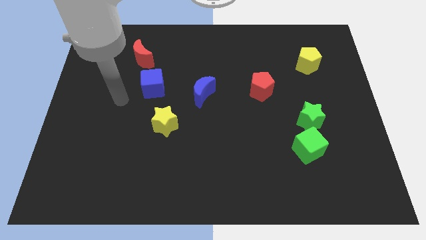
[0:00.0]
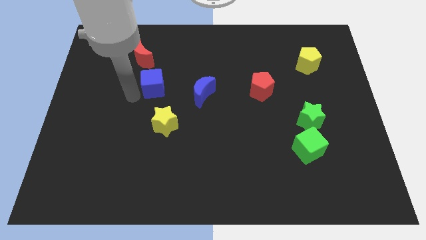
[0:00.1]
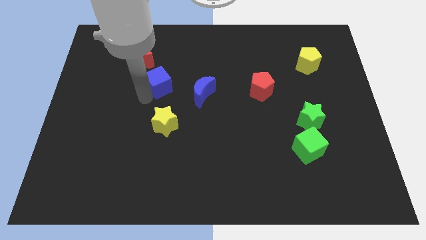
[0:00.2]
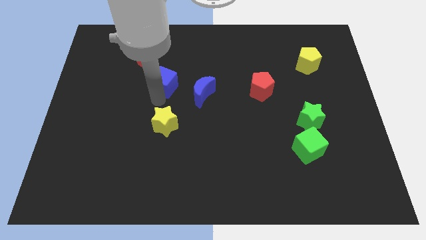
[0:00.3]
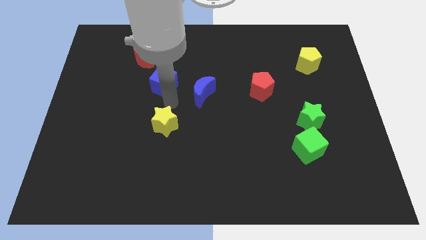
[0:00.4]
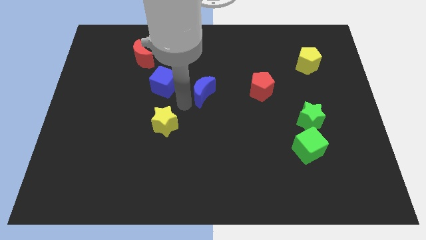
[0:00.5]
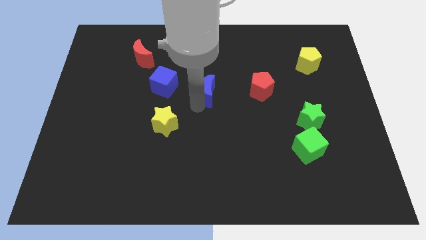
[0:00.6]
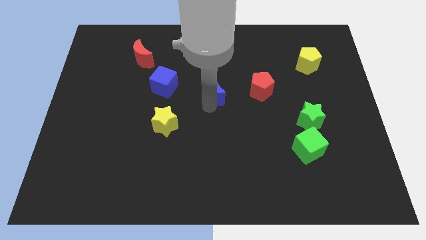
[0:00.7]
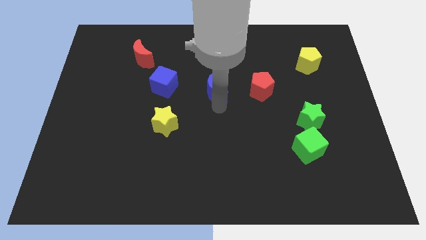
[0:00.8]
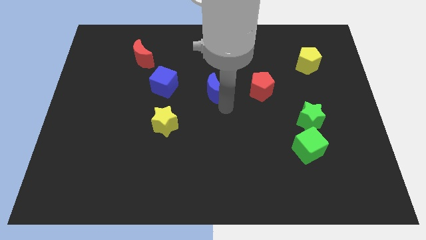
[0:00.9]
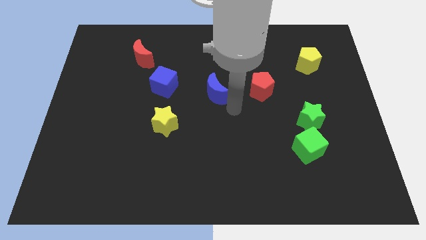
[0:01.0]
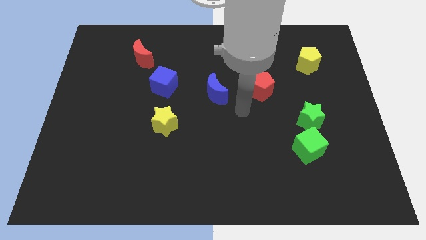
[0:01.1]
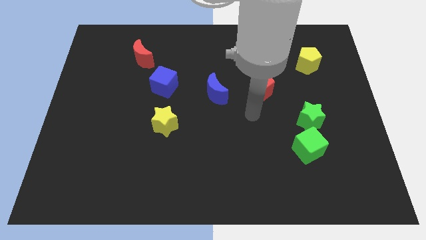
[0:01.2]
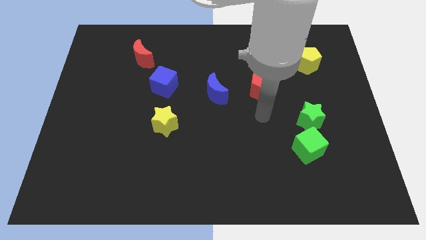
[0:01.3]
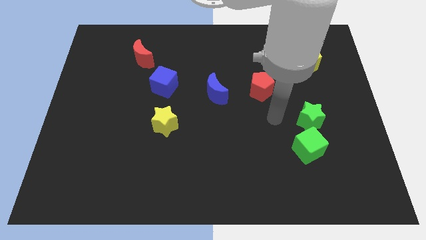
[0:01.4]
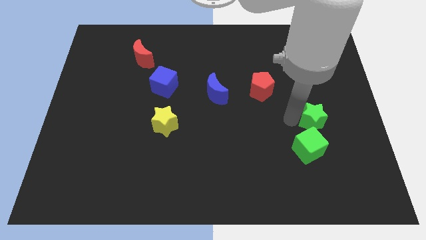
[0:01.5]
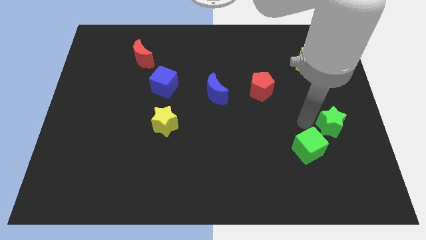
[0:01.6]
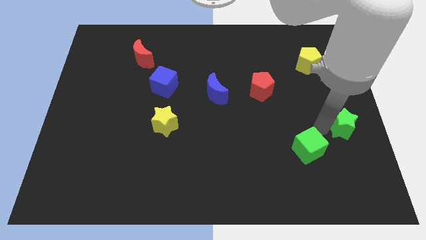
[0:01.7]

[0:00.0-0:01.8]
pull the green cube apart from the green star

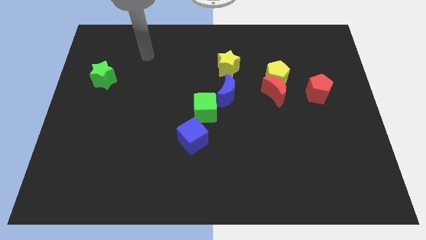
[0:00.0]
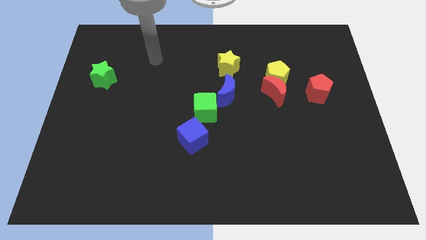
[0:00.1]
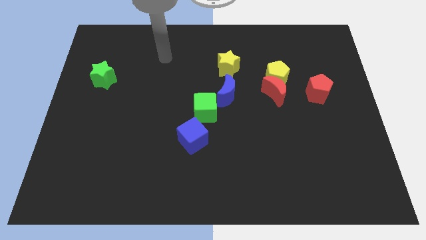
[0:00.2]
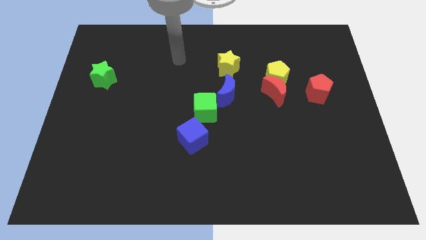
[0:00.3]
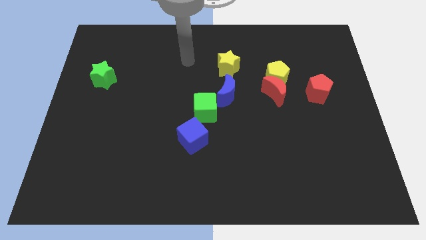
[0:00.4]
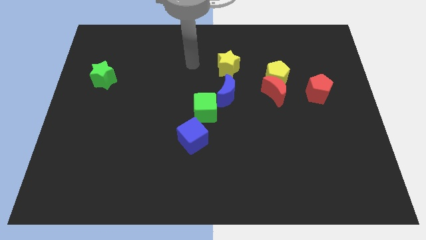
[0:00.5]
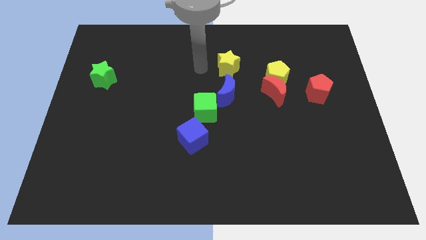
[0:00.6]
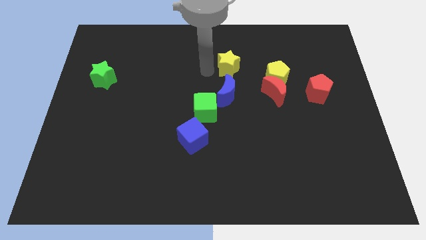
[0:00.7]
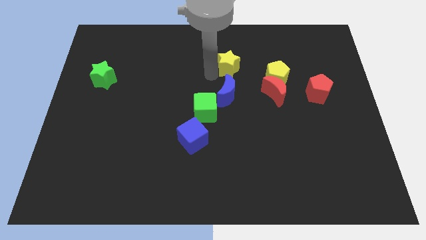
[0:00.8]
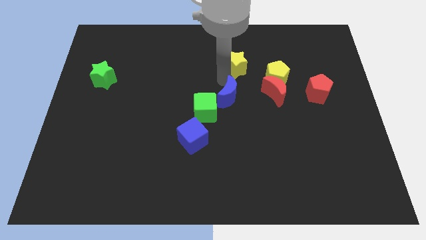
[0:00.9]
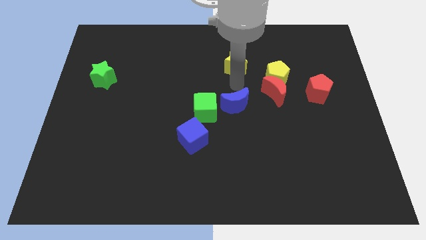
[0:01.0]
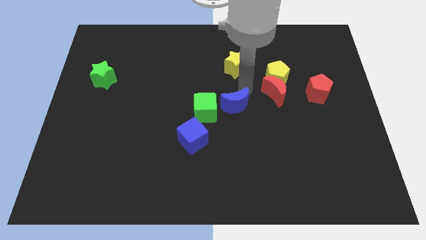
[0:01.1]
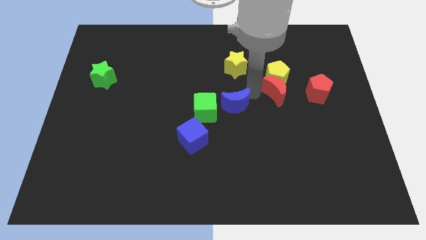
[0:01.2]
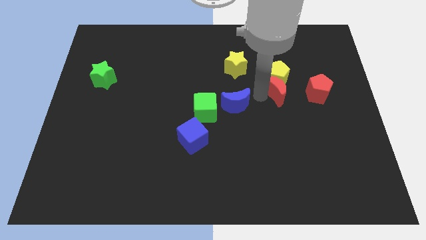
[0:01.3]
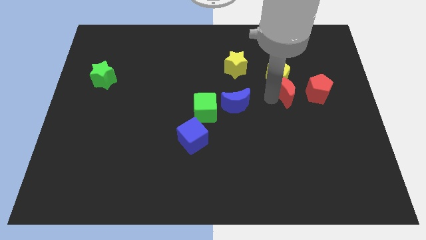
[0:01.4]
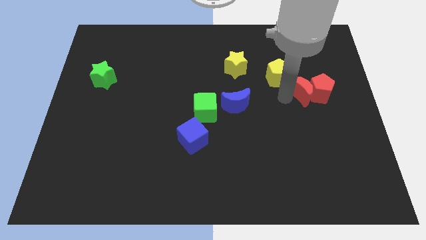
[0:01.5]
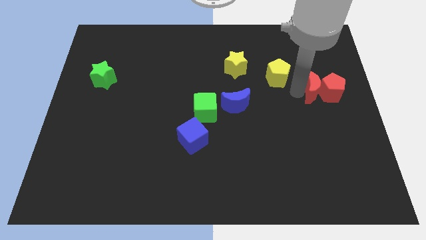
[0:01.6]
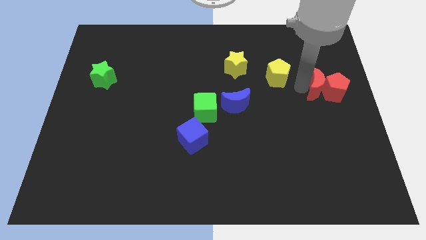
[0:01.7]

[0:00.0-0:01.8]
separate the yellow pentagon from the red moon

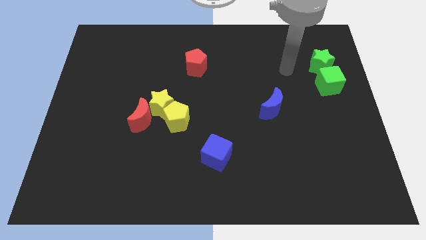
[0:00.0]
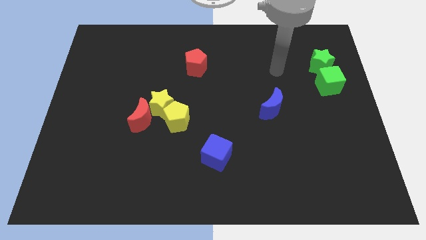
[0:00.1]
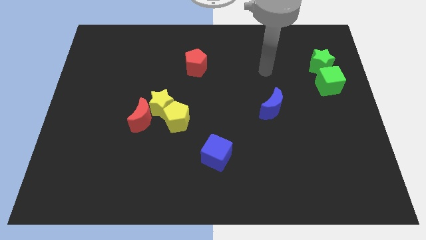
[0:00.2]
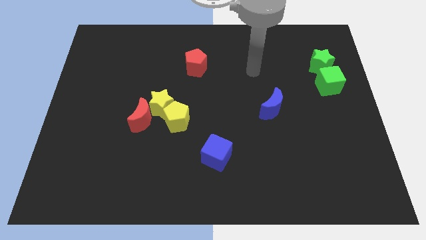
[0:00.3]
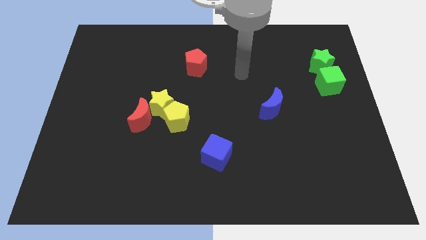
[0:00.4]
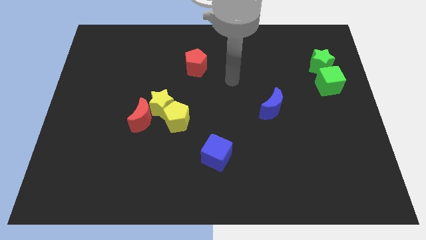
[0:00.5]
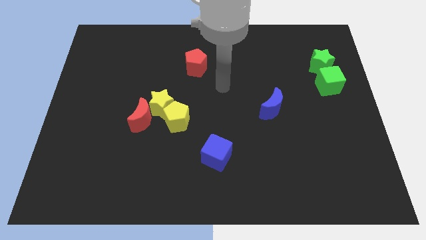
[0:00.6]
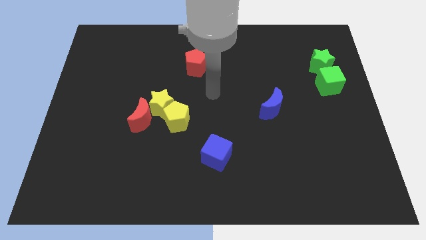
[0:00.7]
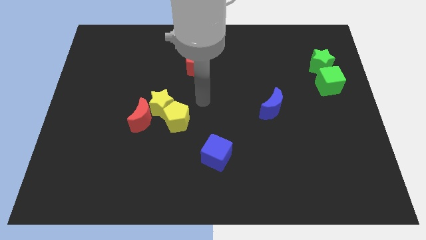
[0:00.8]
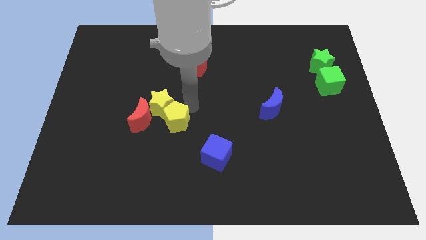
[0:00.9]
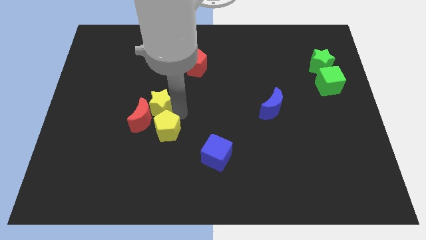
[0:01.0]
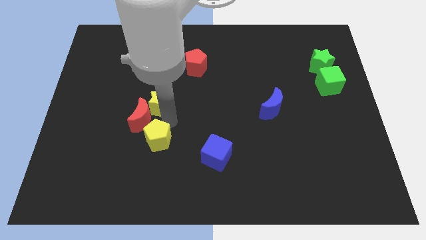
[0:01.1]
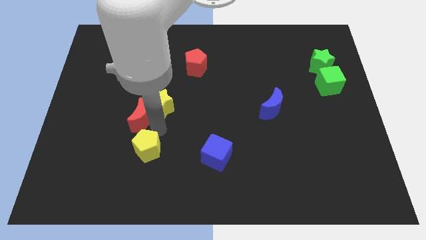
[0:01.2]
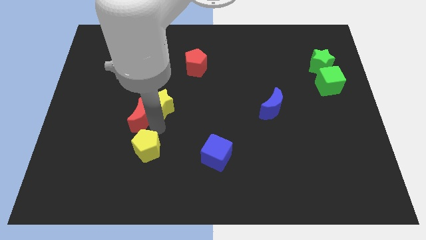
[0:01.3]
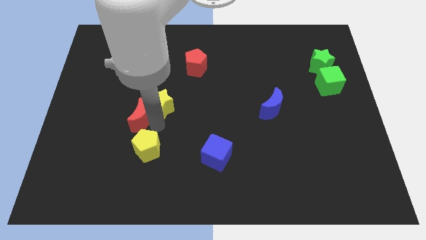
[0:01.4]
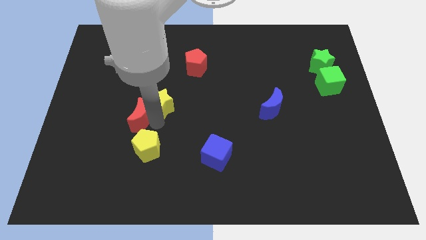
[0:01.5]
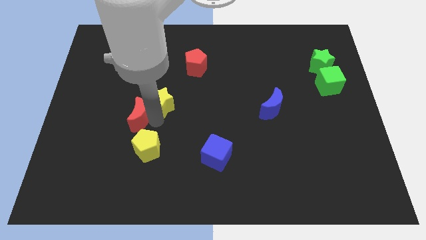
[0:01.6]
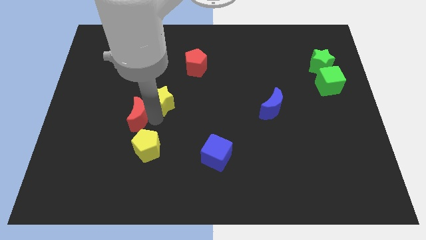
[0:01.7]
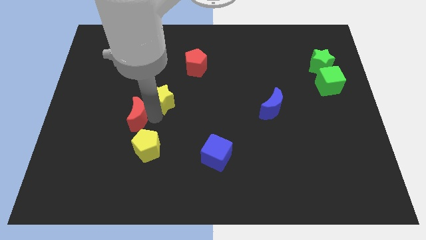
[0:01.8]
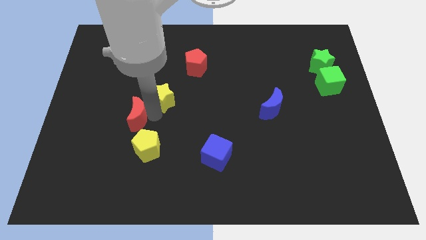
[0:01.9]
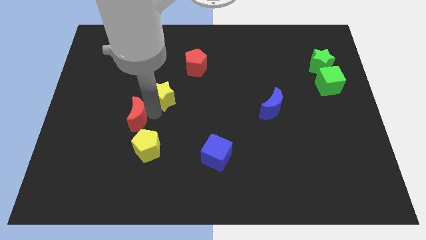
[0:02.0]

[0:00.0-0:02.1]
separate the yellow star from the yellow pentagon and red moon

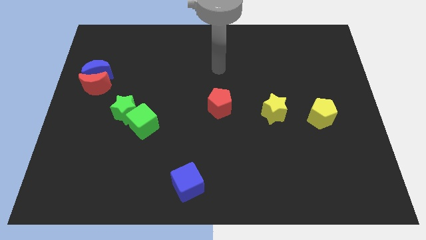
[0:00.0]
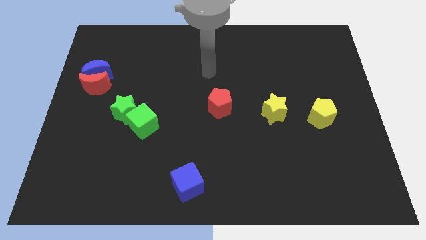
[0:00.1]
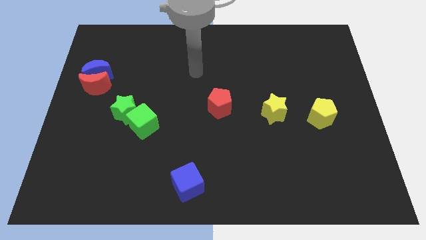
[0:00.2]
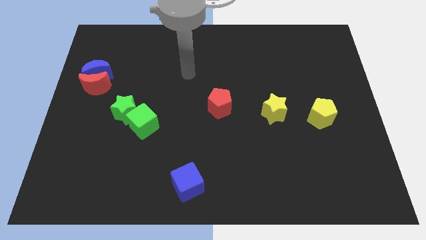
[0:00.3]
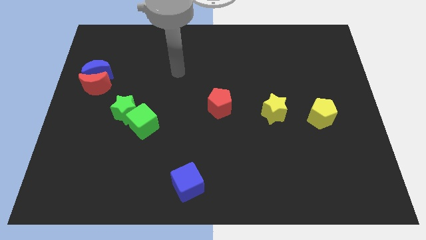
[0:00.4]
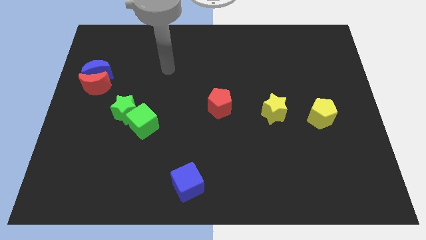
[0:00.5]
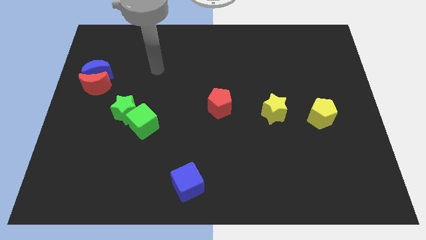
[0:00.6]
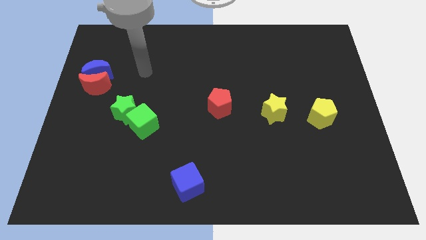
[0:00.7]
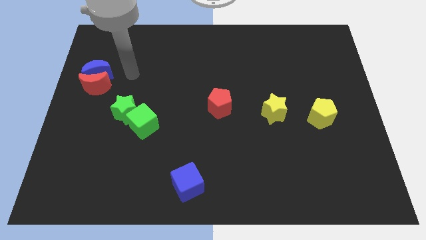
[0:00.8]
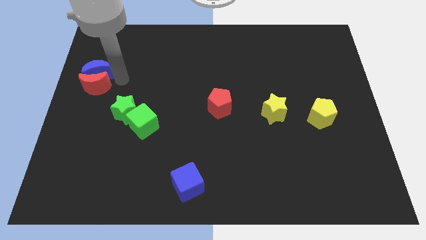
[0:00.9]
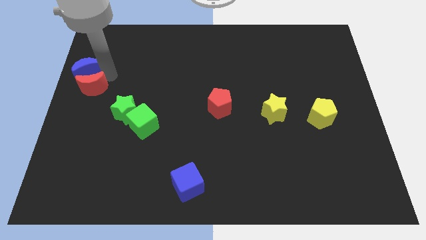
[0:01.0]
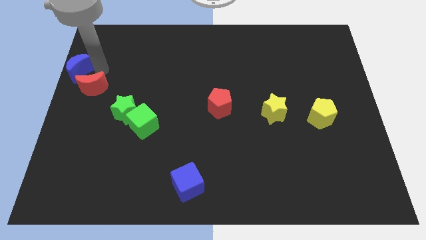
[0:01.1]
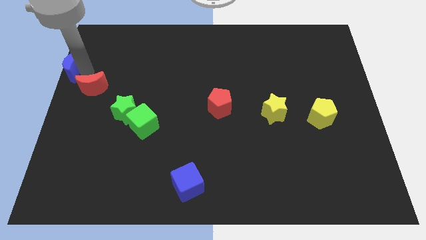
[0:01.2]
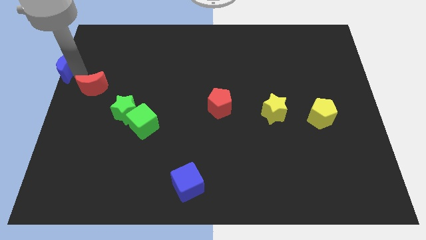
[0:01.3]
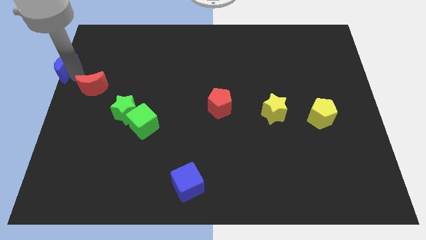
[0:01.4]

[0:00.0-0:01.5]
pull the red moon apart from the blue moon

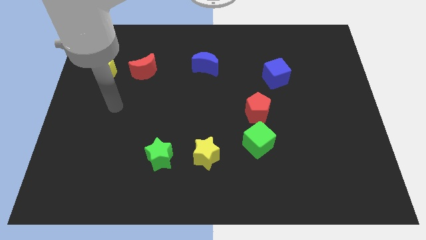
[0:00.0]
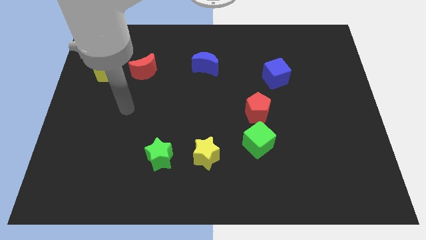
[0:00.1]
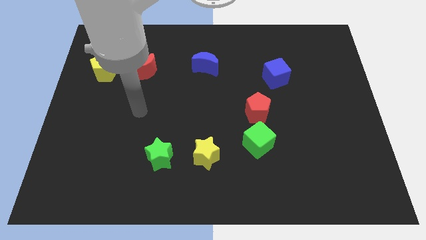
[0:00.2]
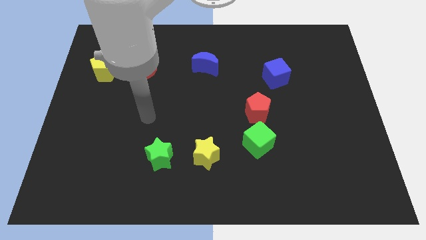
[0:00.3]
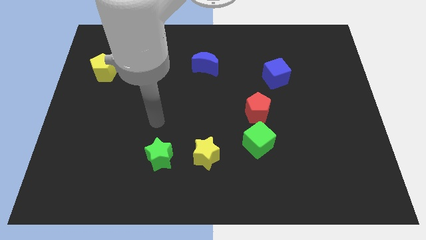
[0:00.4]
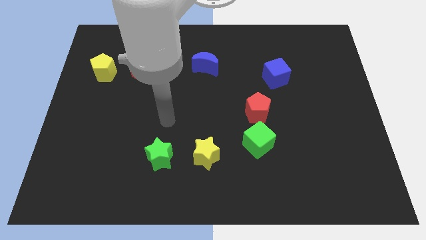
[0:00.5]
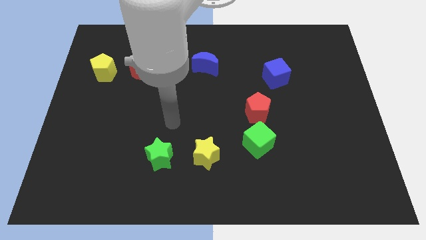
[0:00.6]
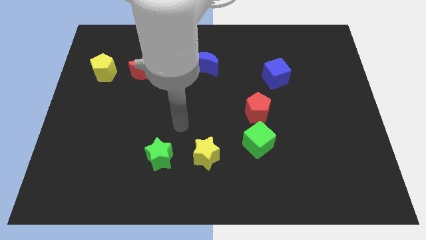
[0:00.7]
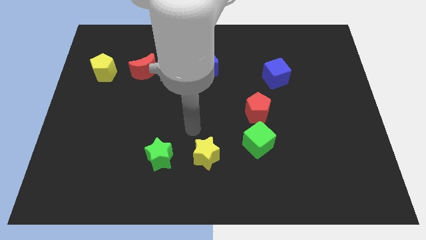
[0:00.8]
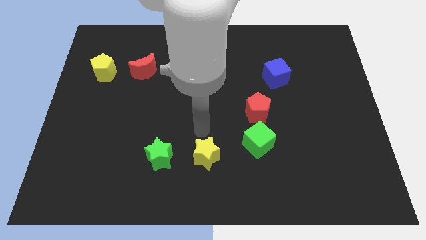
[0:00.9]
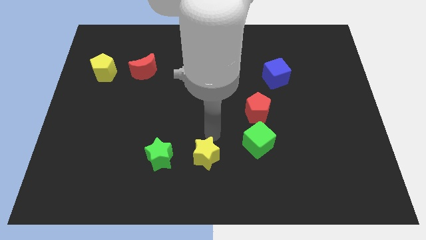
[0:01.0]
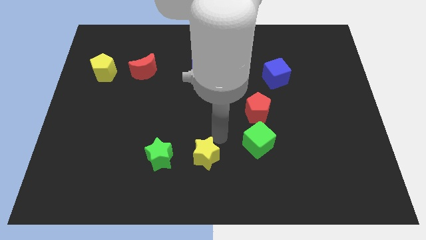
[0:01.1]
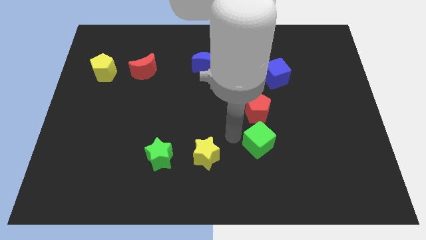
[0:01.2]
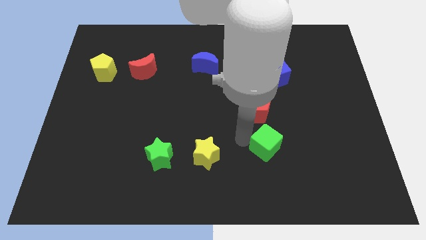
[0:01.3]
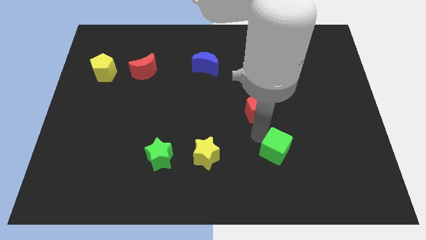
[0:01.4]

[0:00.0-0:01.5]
move the red pentagon away from the green cube

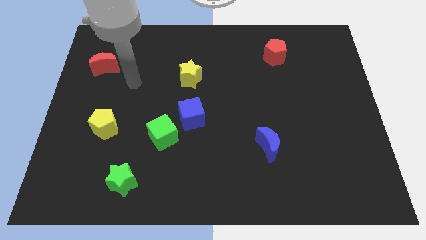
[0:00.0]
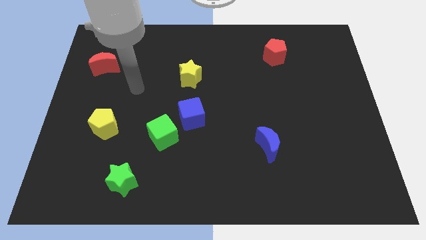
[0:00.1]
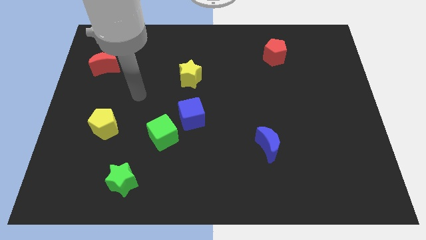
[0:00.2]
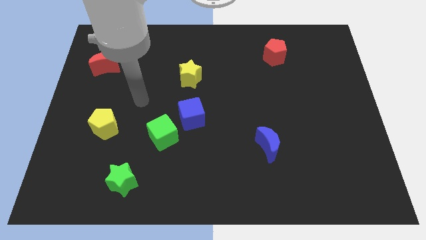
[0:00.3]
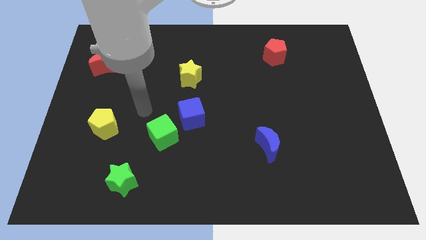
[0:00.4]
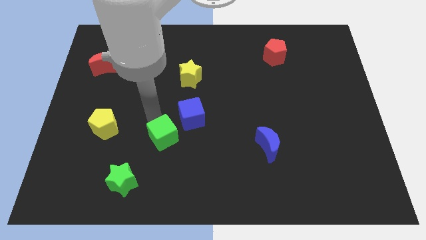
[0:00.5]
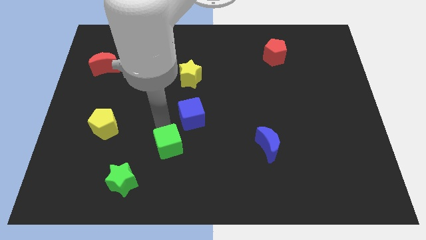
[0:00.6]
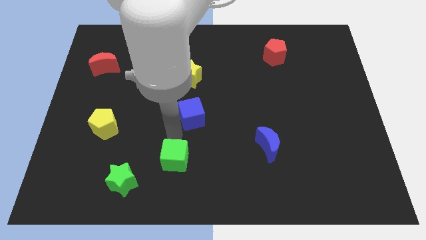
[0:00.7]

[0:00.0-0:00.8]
separate the blue cube from the green cube
